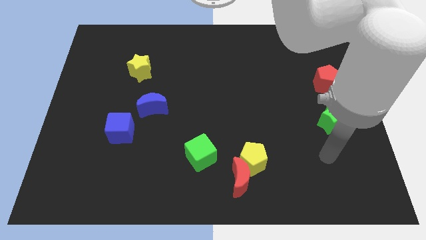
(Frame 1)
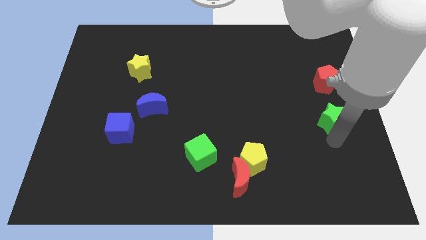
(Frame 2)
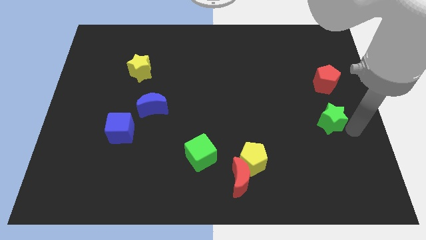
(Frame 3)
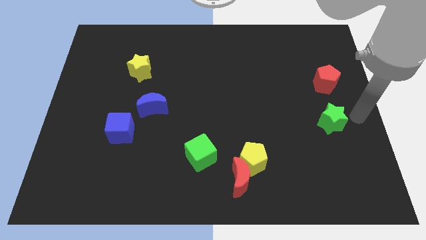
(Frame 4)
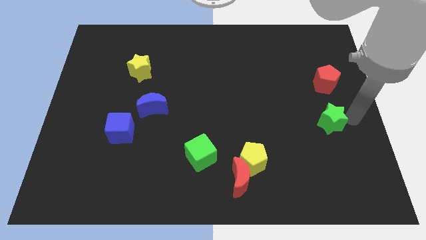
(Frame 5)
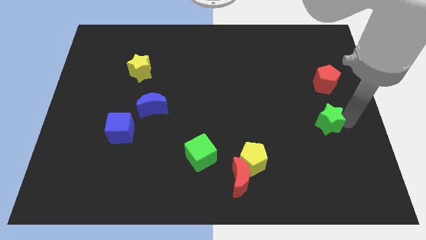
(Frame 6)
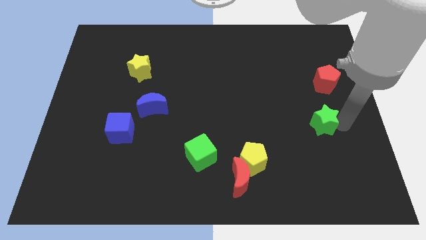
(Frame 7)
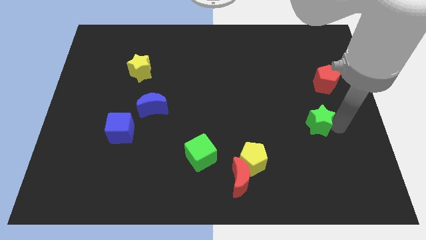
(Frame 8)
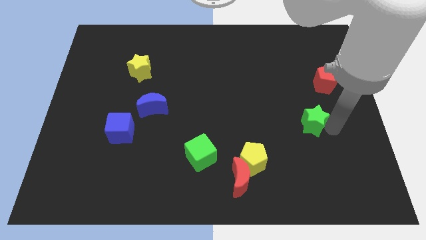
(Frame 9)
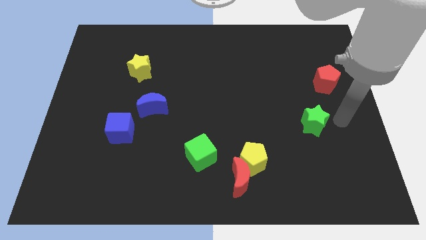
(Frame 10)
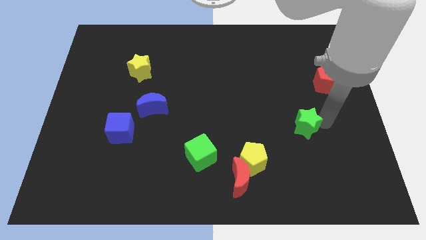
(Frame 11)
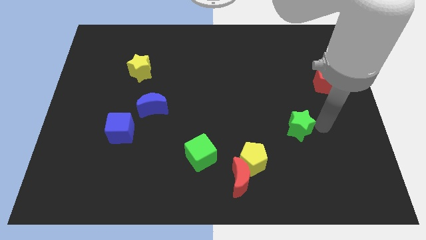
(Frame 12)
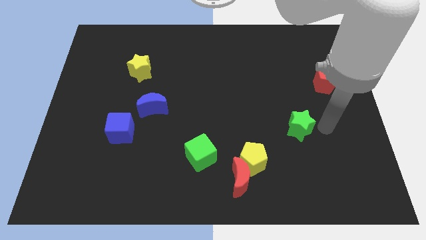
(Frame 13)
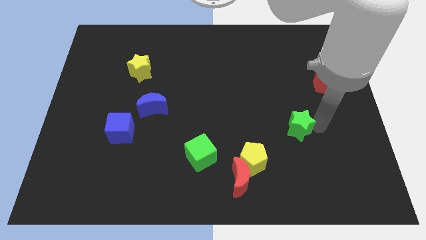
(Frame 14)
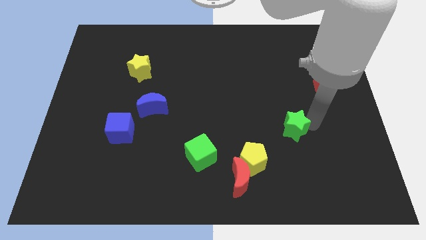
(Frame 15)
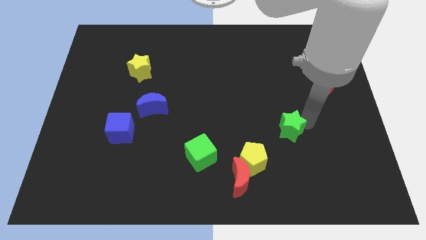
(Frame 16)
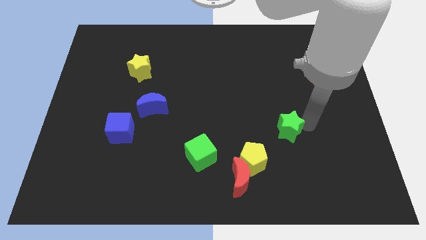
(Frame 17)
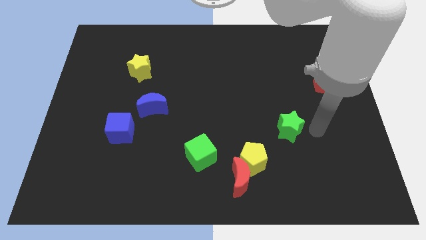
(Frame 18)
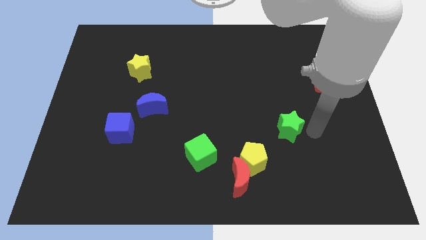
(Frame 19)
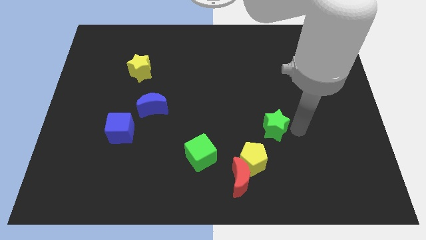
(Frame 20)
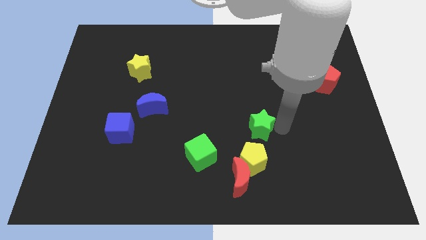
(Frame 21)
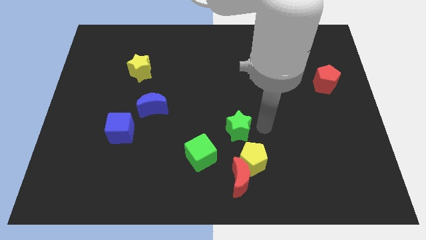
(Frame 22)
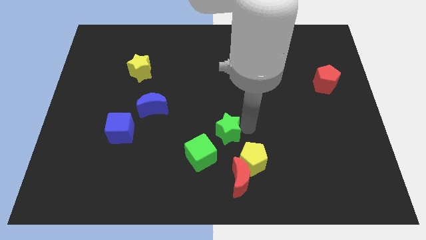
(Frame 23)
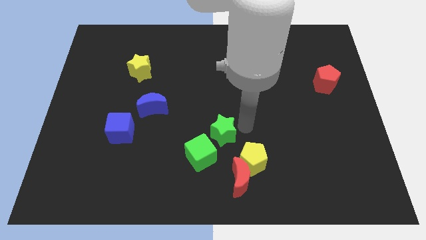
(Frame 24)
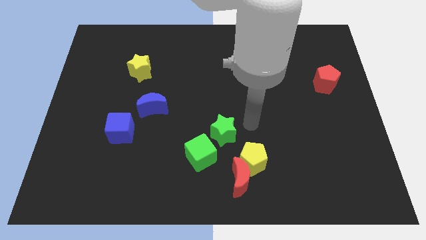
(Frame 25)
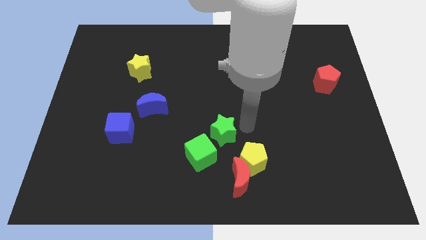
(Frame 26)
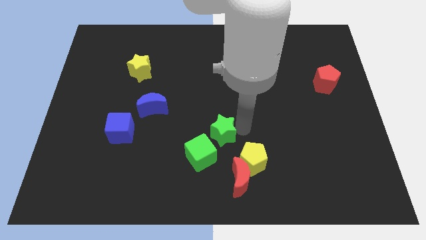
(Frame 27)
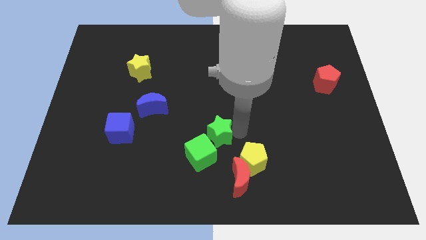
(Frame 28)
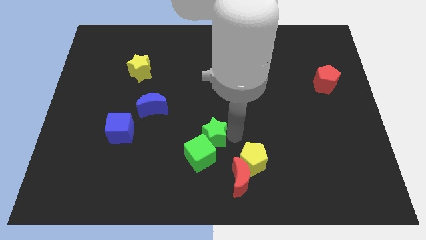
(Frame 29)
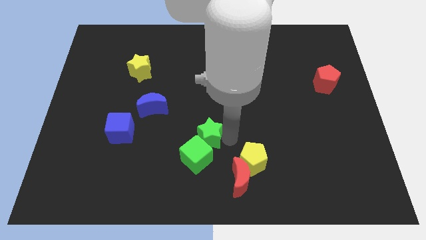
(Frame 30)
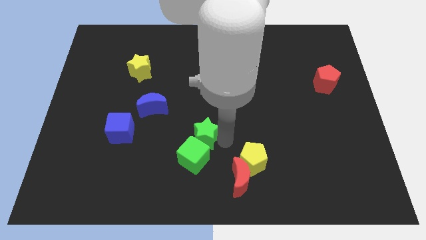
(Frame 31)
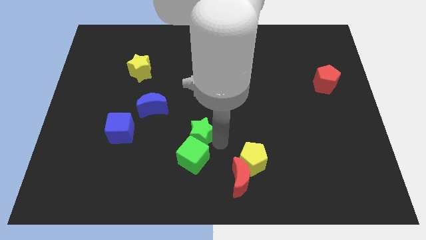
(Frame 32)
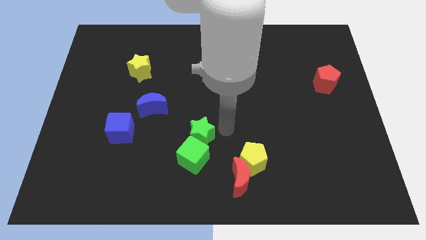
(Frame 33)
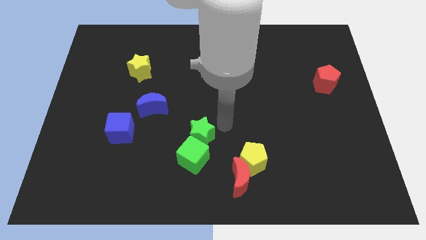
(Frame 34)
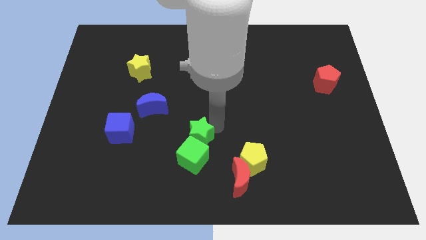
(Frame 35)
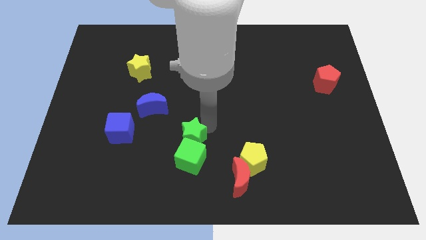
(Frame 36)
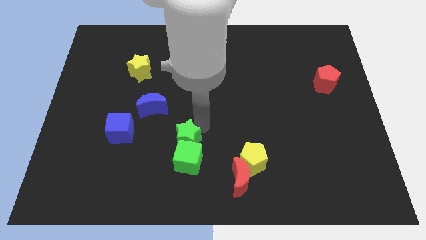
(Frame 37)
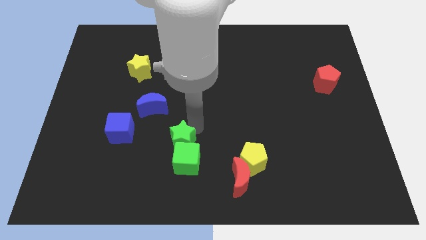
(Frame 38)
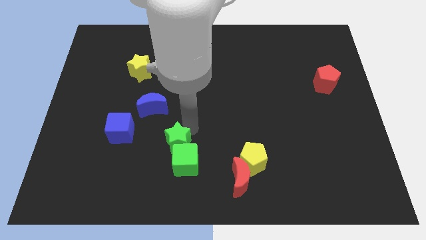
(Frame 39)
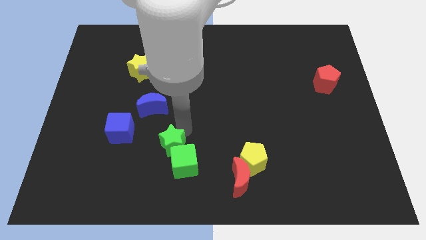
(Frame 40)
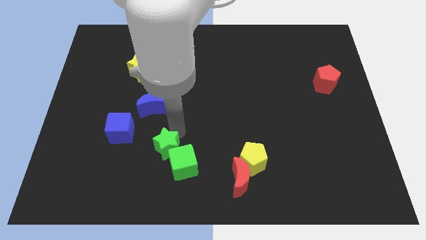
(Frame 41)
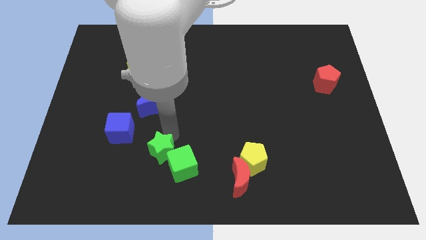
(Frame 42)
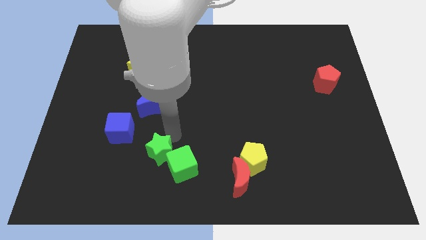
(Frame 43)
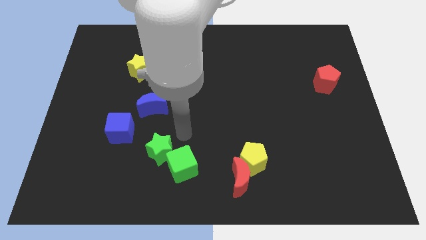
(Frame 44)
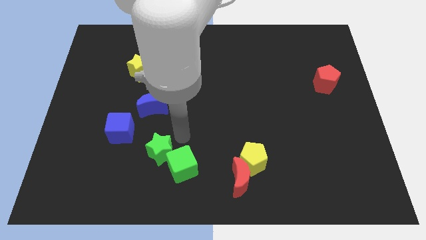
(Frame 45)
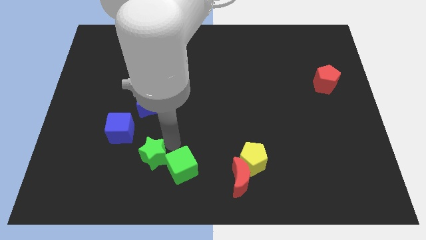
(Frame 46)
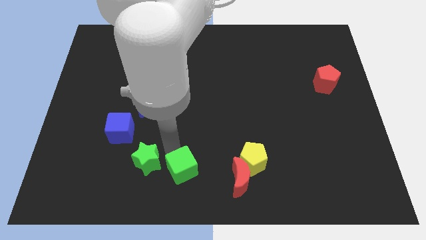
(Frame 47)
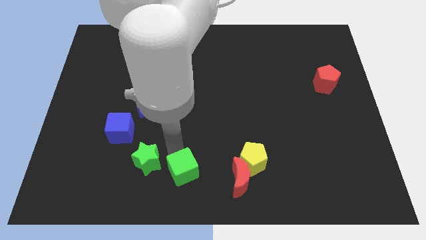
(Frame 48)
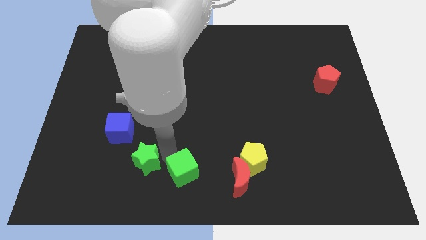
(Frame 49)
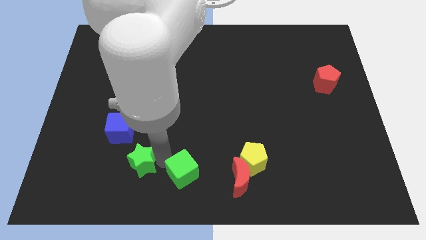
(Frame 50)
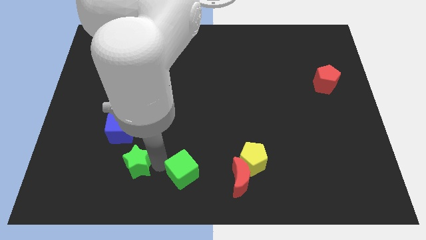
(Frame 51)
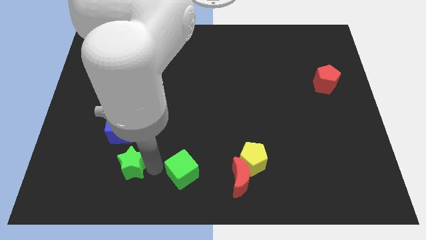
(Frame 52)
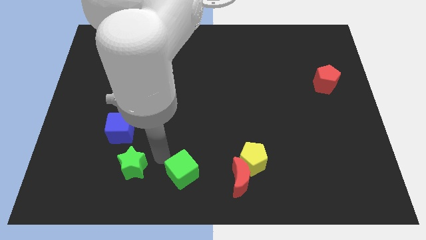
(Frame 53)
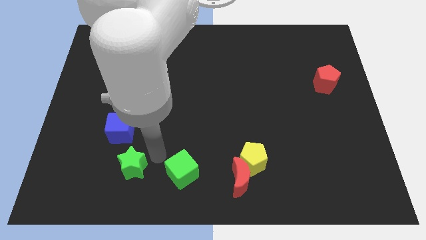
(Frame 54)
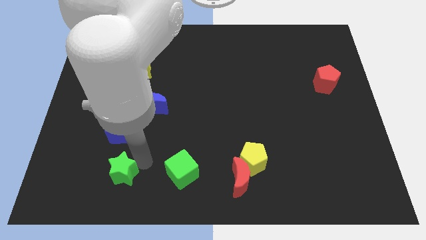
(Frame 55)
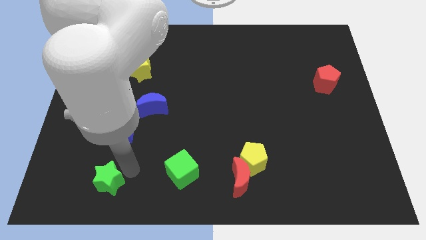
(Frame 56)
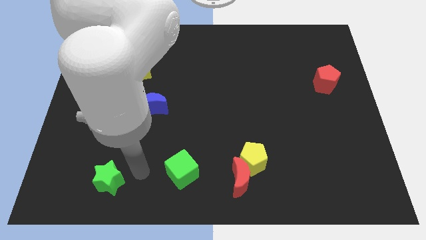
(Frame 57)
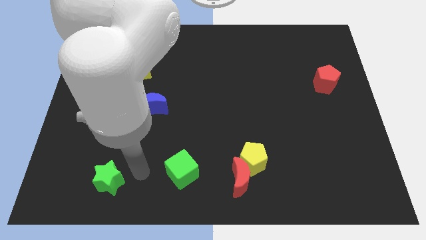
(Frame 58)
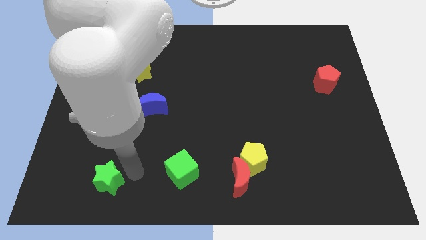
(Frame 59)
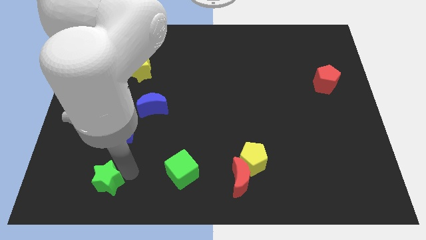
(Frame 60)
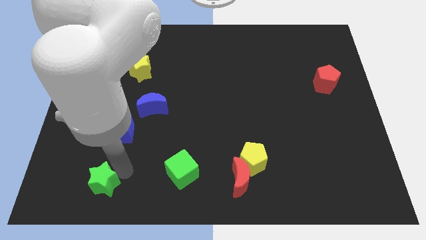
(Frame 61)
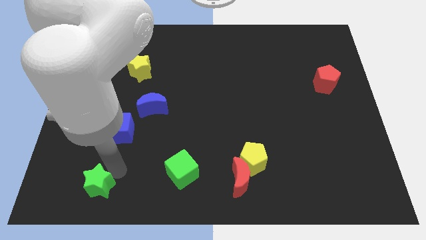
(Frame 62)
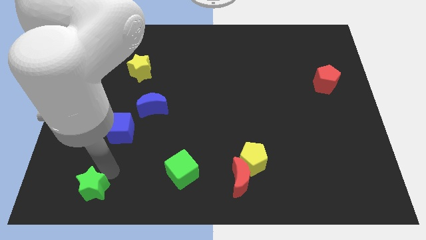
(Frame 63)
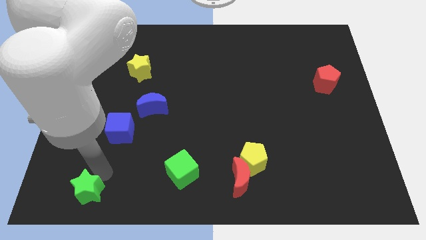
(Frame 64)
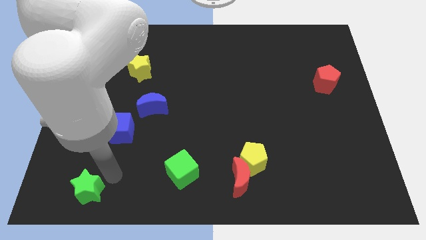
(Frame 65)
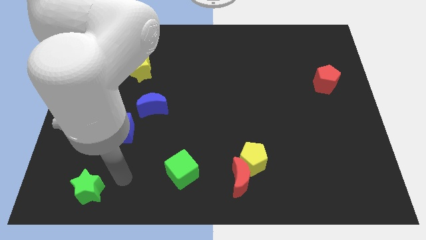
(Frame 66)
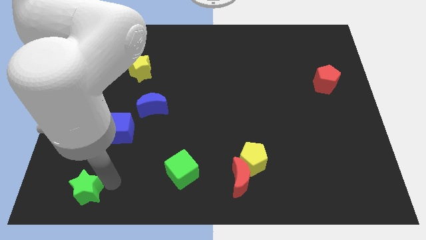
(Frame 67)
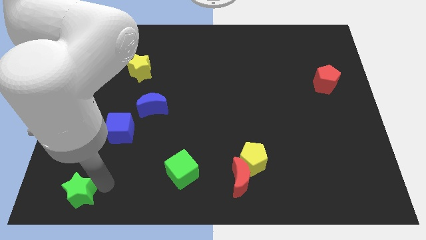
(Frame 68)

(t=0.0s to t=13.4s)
move the green star to the bottom left
